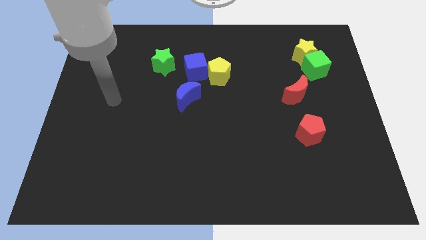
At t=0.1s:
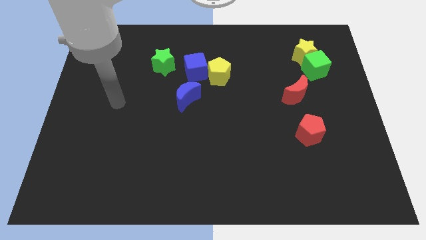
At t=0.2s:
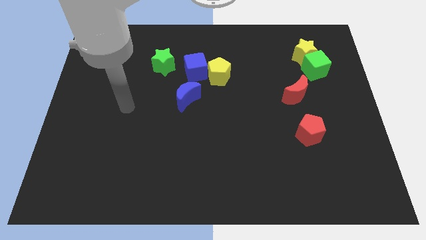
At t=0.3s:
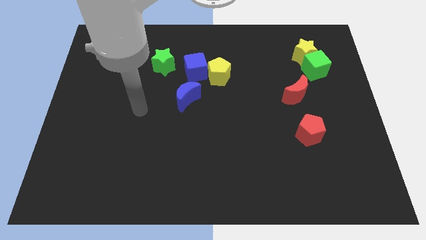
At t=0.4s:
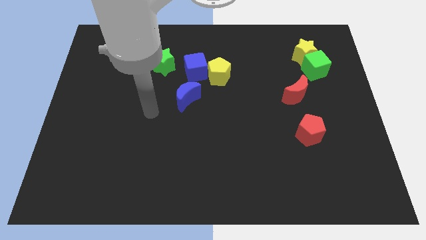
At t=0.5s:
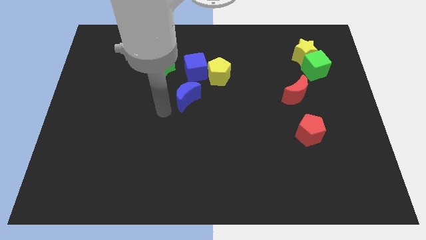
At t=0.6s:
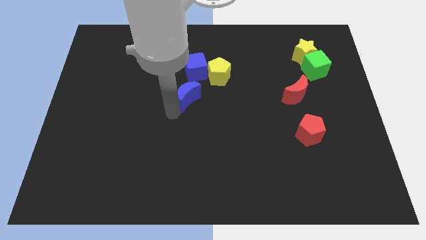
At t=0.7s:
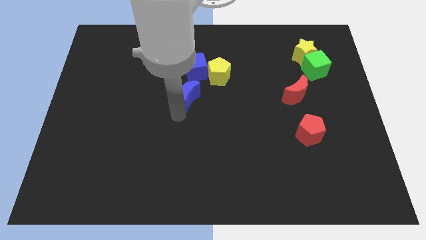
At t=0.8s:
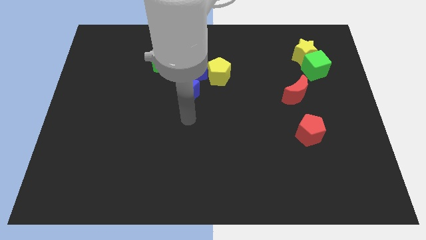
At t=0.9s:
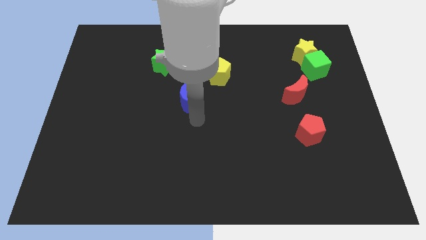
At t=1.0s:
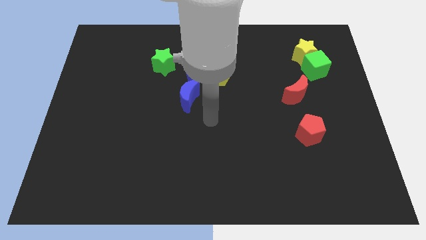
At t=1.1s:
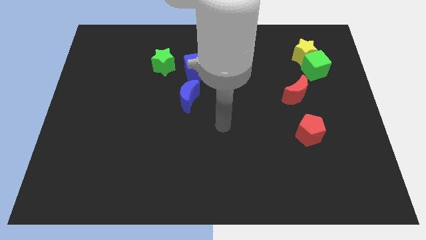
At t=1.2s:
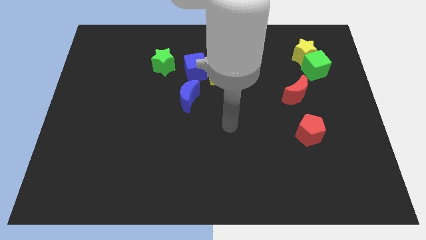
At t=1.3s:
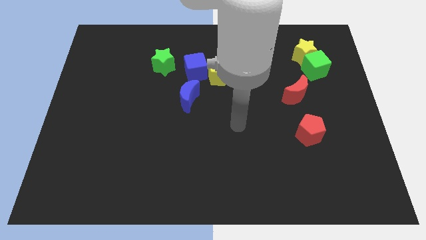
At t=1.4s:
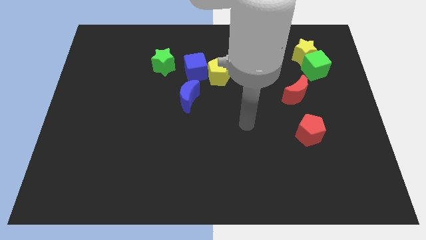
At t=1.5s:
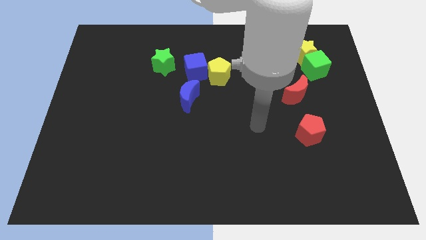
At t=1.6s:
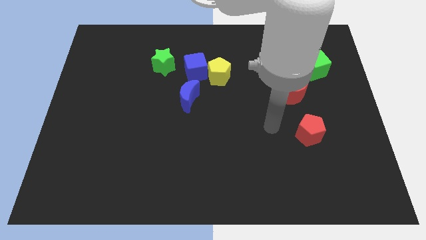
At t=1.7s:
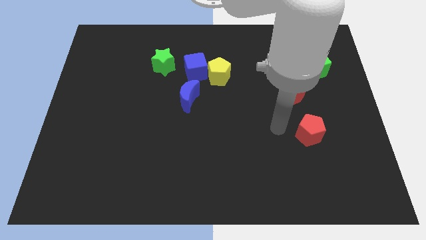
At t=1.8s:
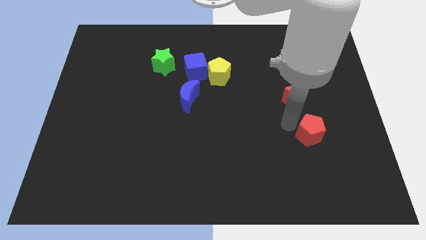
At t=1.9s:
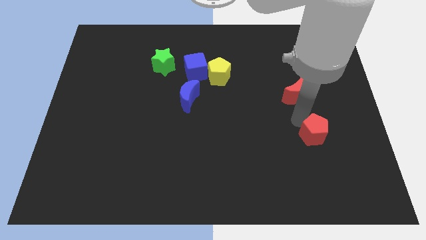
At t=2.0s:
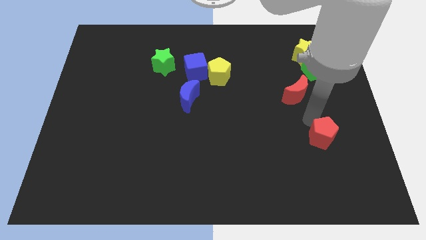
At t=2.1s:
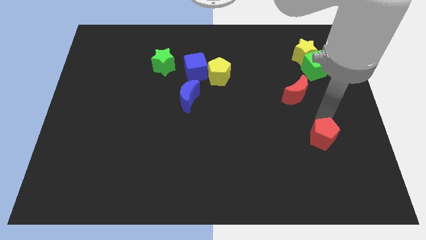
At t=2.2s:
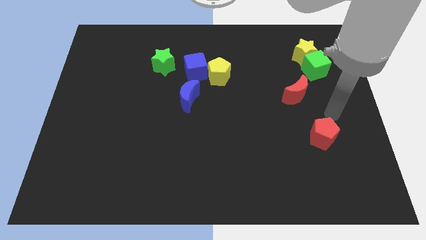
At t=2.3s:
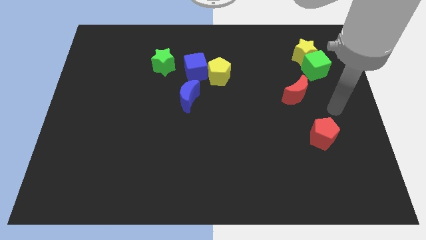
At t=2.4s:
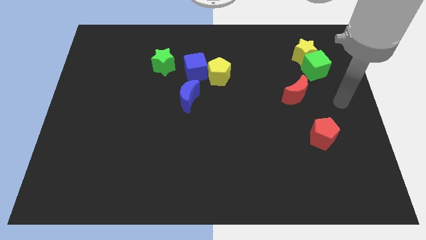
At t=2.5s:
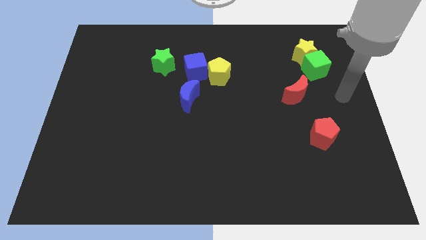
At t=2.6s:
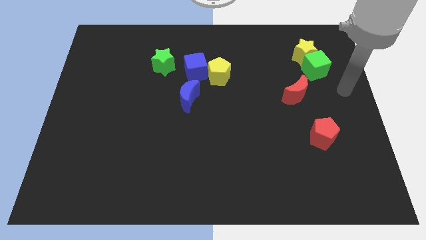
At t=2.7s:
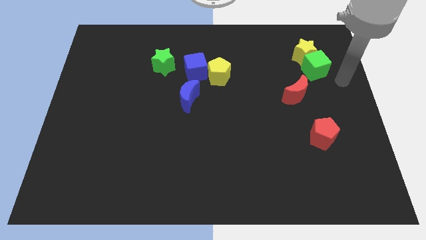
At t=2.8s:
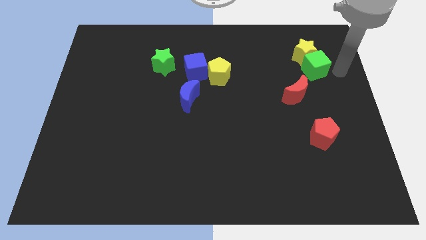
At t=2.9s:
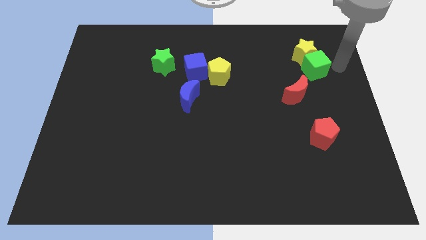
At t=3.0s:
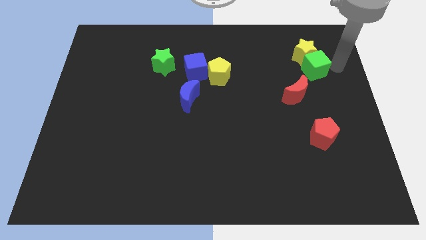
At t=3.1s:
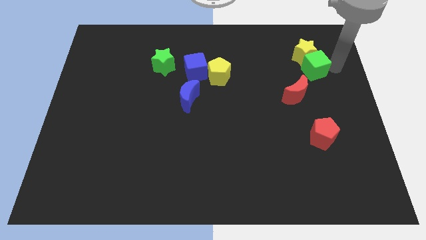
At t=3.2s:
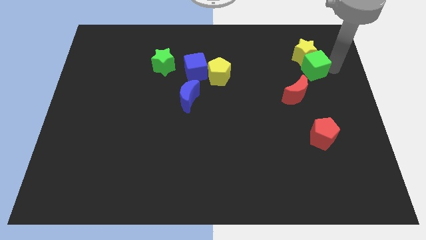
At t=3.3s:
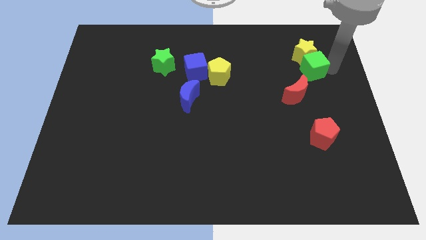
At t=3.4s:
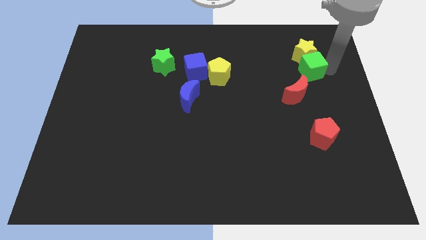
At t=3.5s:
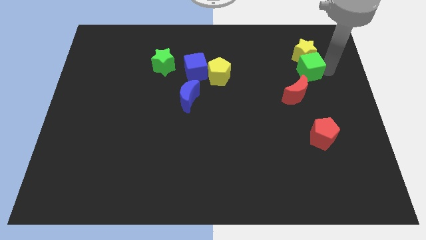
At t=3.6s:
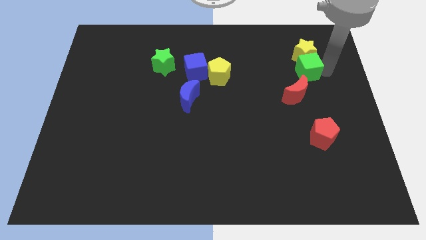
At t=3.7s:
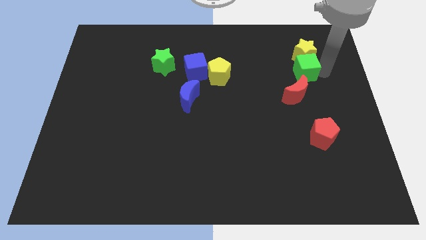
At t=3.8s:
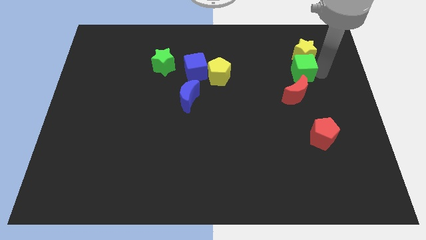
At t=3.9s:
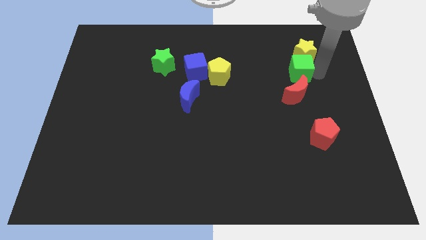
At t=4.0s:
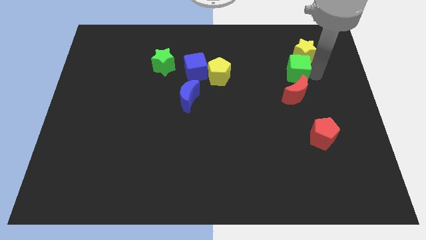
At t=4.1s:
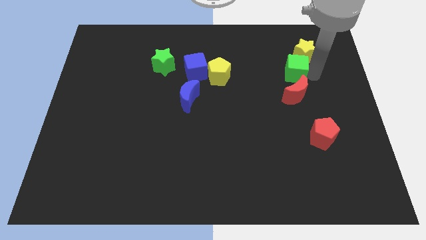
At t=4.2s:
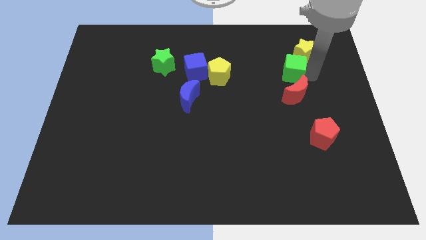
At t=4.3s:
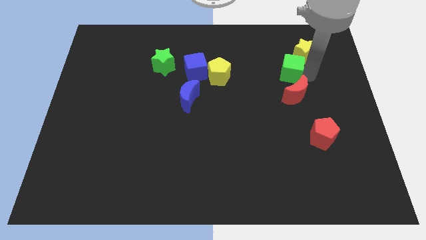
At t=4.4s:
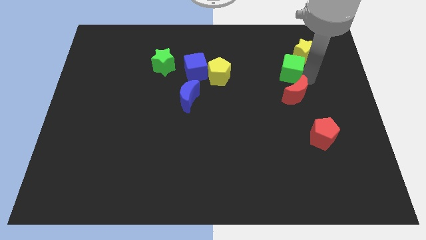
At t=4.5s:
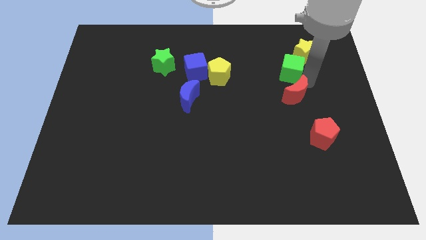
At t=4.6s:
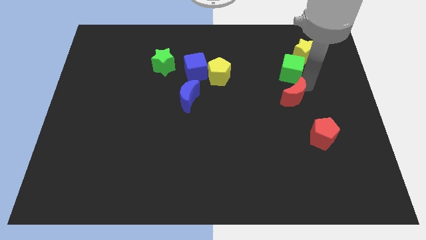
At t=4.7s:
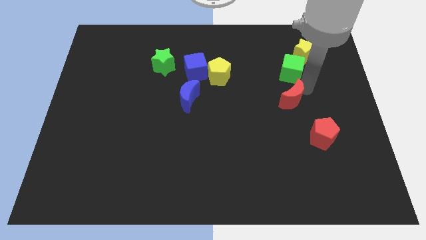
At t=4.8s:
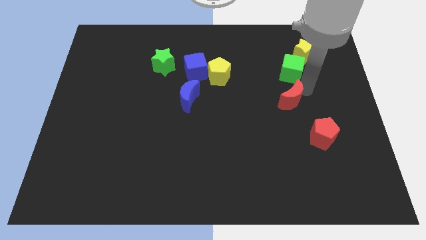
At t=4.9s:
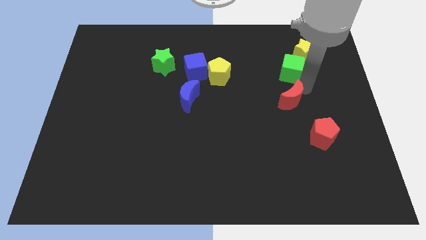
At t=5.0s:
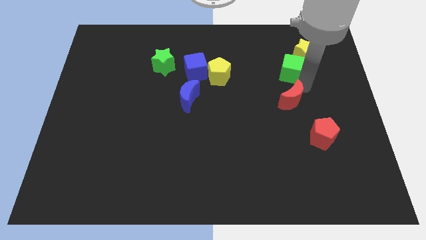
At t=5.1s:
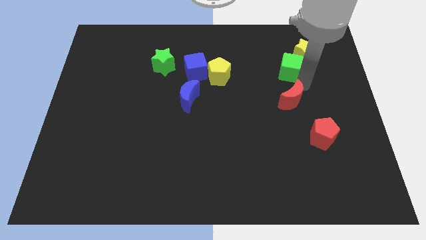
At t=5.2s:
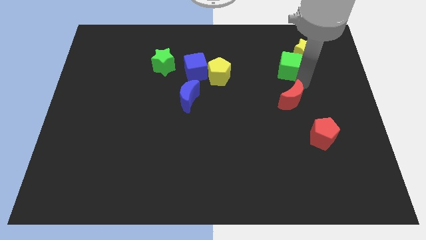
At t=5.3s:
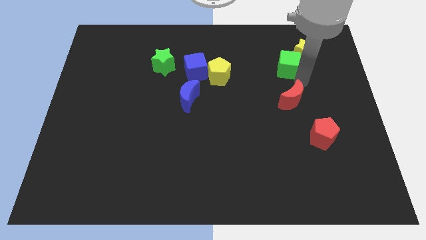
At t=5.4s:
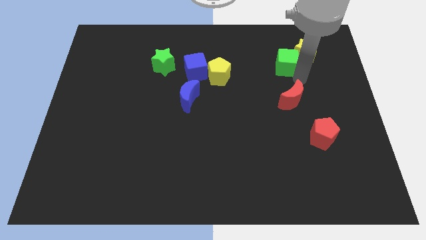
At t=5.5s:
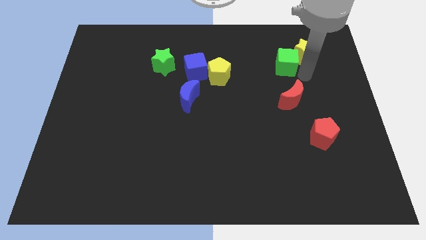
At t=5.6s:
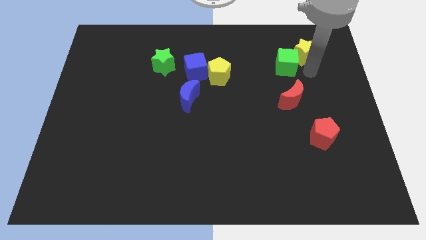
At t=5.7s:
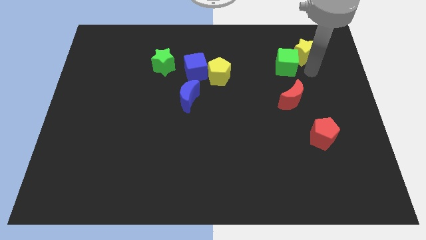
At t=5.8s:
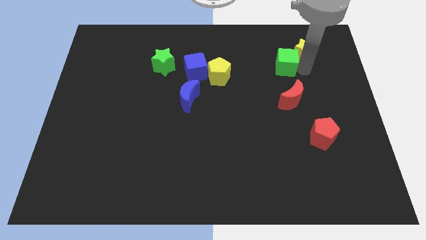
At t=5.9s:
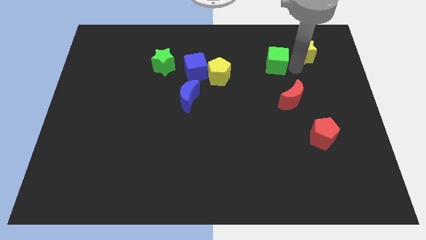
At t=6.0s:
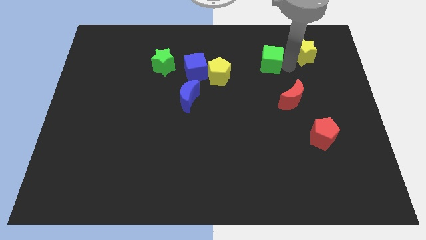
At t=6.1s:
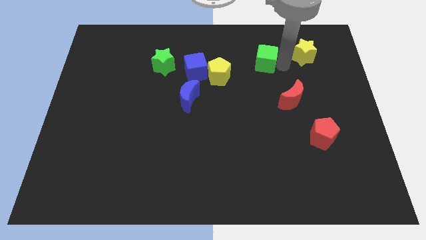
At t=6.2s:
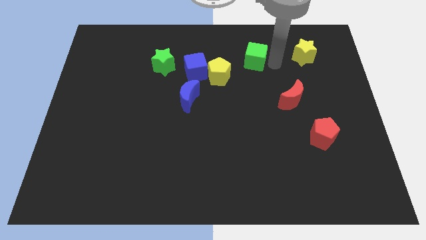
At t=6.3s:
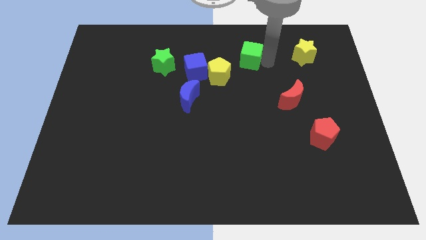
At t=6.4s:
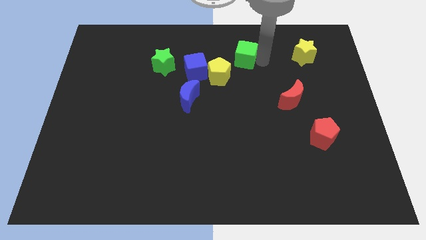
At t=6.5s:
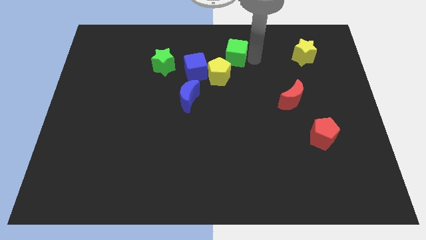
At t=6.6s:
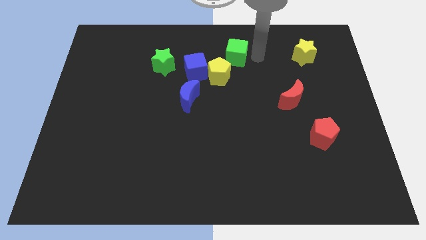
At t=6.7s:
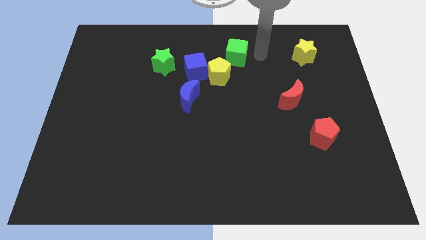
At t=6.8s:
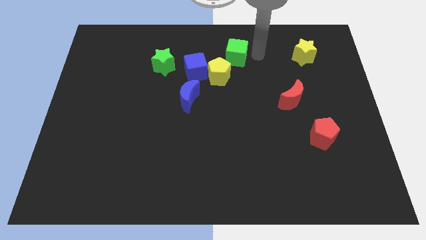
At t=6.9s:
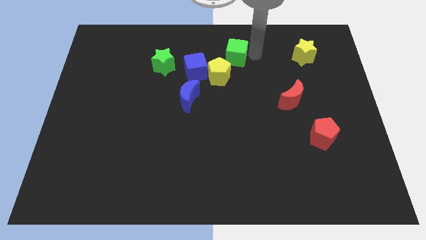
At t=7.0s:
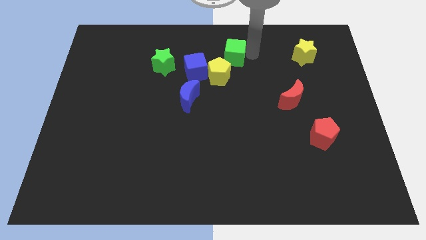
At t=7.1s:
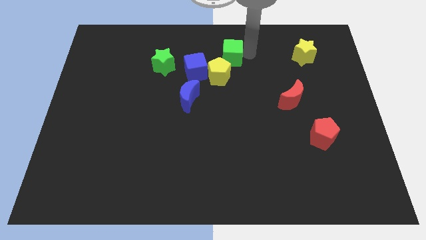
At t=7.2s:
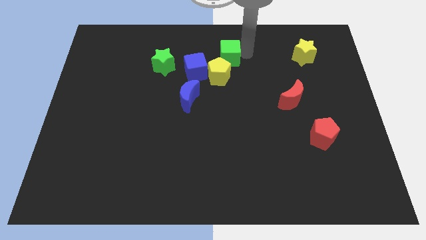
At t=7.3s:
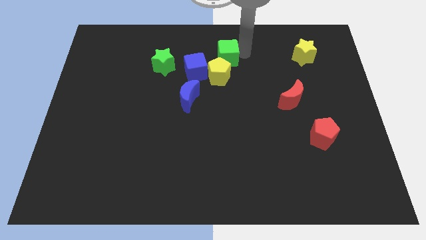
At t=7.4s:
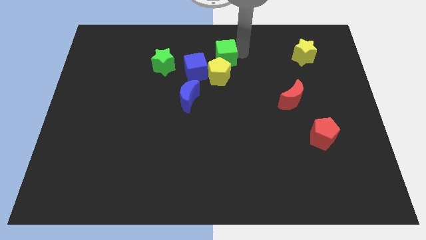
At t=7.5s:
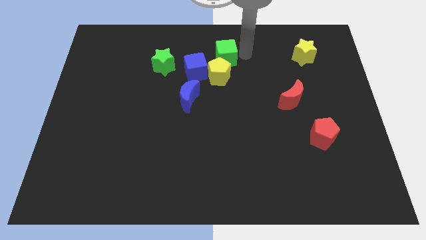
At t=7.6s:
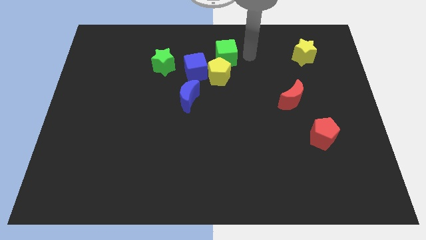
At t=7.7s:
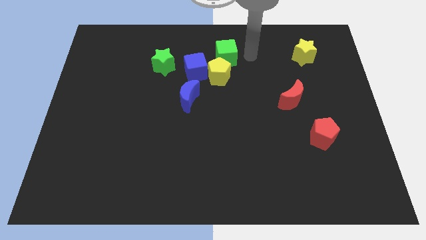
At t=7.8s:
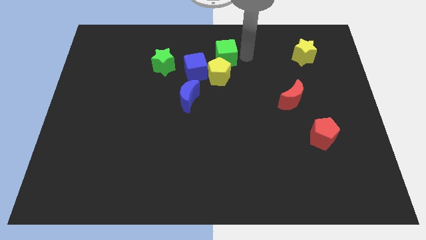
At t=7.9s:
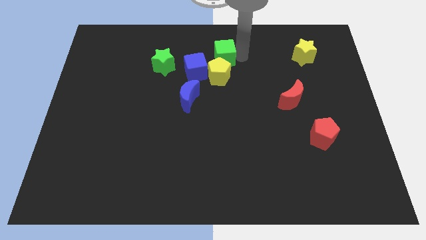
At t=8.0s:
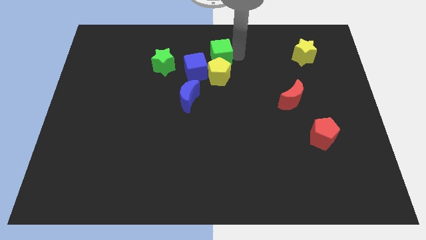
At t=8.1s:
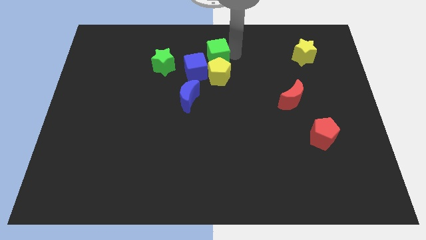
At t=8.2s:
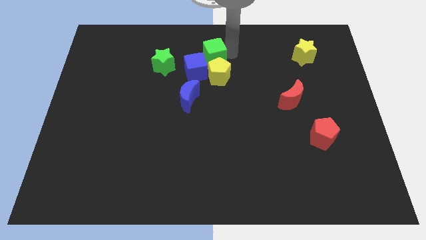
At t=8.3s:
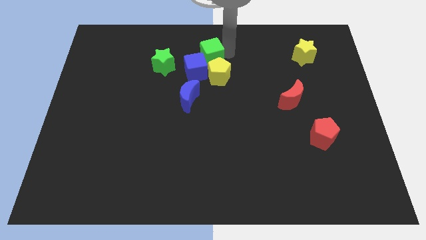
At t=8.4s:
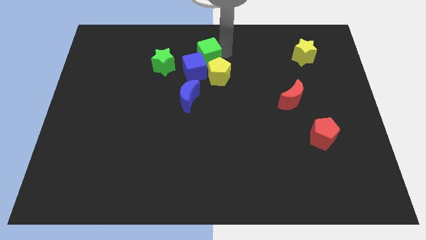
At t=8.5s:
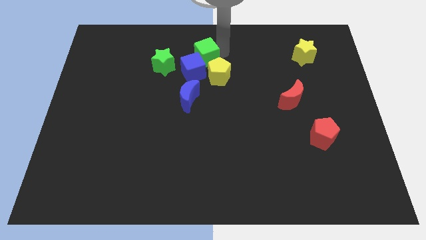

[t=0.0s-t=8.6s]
push the green cube next to the blue cube
